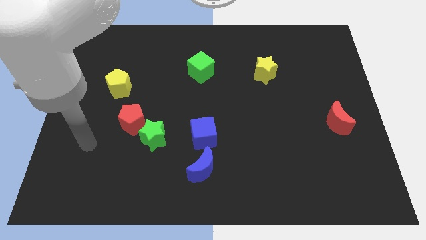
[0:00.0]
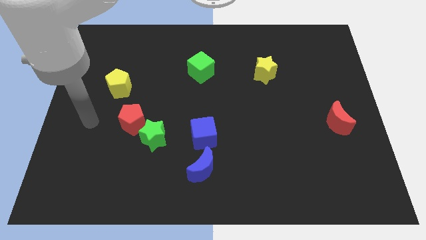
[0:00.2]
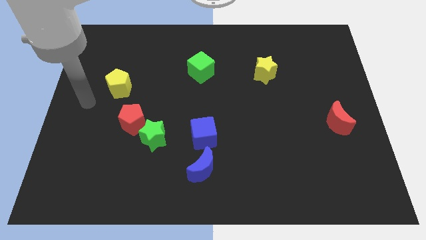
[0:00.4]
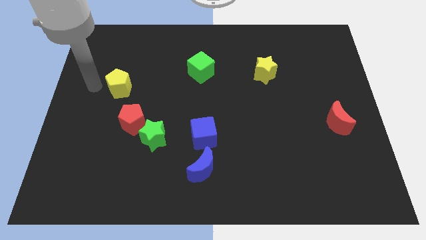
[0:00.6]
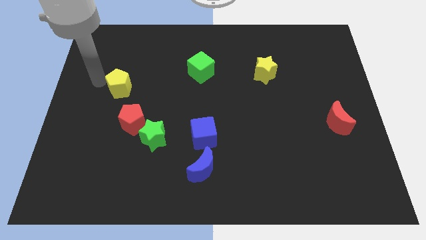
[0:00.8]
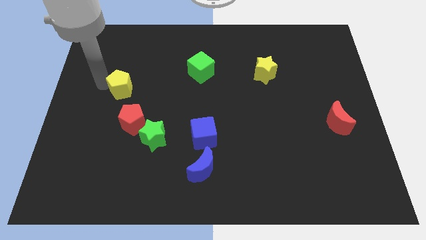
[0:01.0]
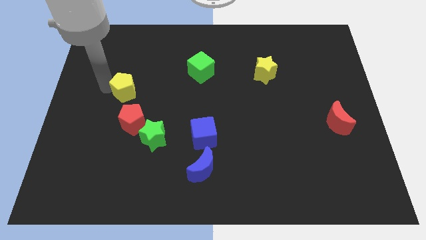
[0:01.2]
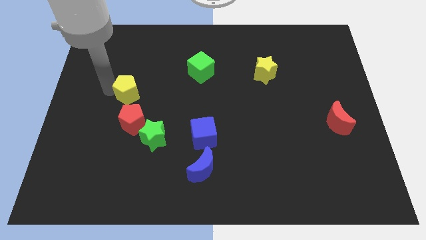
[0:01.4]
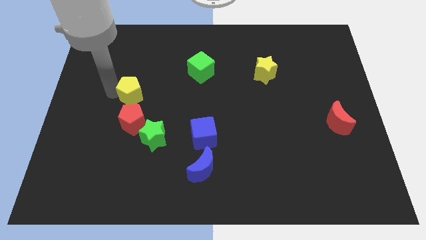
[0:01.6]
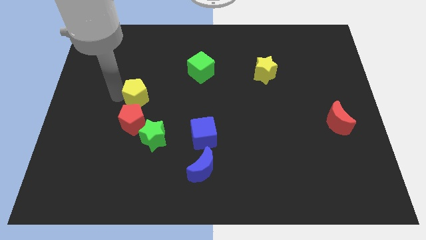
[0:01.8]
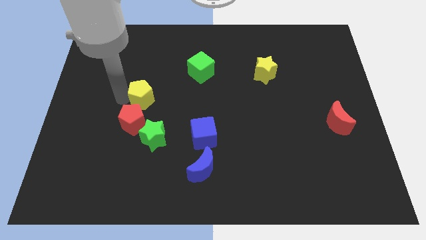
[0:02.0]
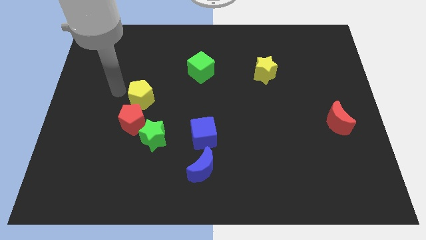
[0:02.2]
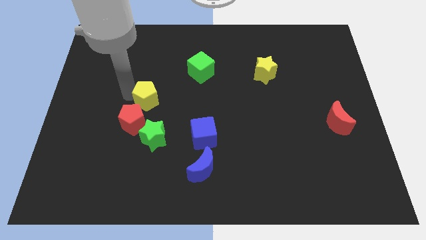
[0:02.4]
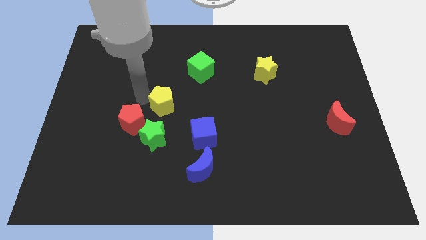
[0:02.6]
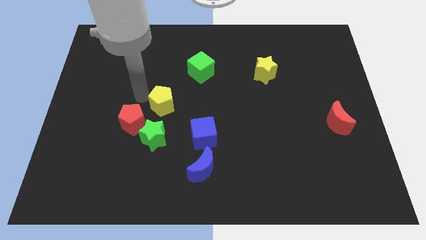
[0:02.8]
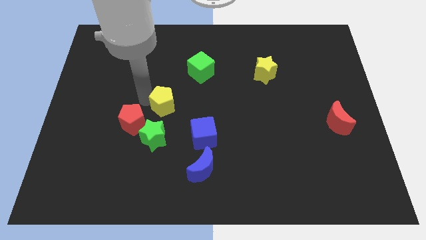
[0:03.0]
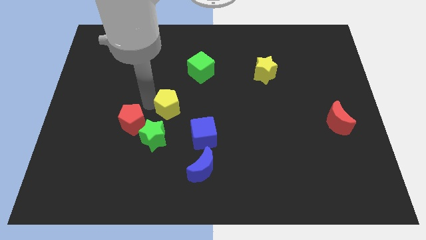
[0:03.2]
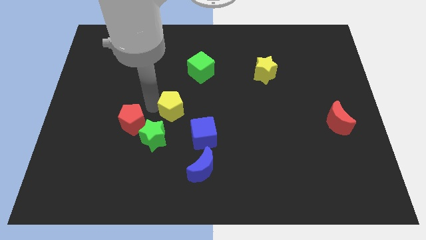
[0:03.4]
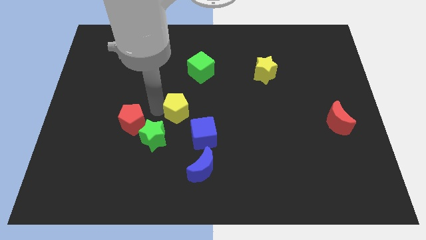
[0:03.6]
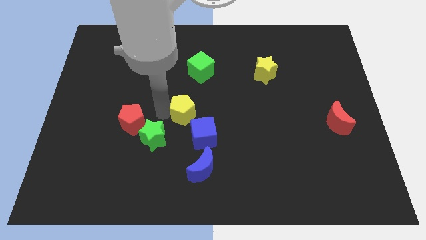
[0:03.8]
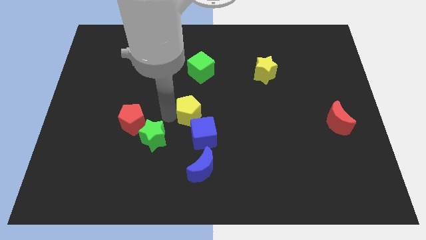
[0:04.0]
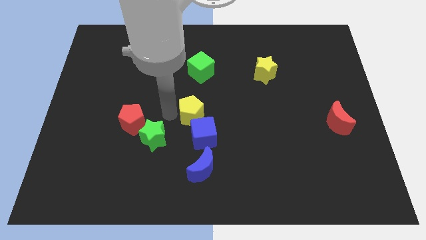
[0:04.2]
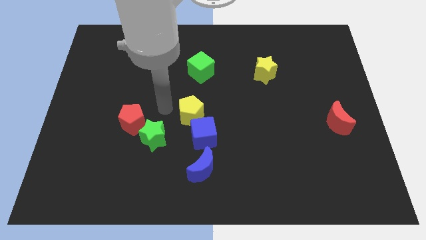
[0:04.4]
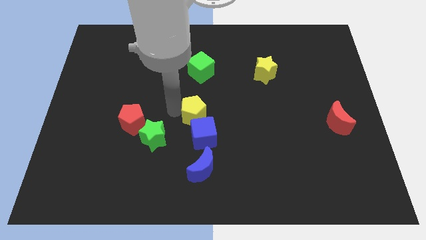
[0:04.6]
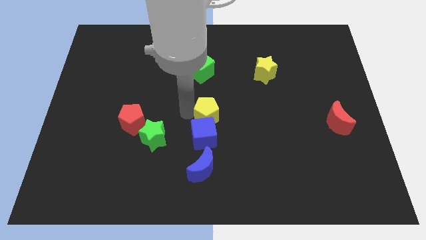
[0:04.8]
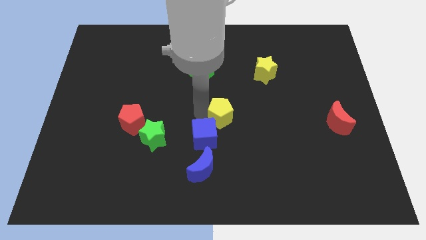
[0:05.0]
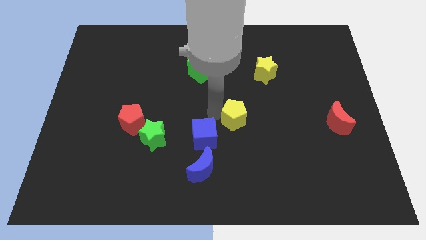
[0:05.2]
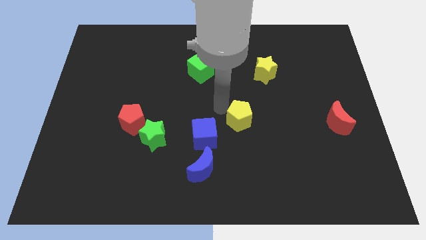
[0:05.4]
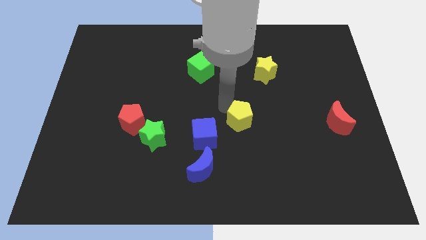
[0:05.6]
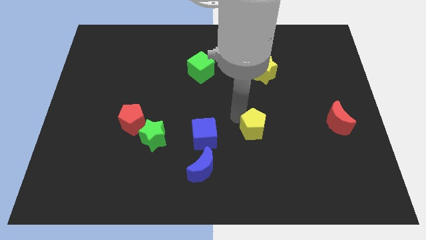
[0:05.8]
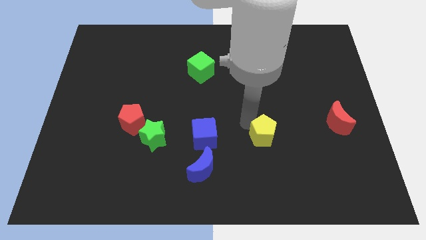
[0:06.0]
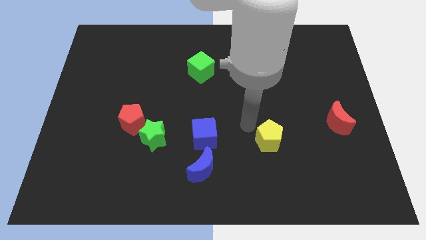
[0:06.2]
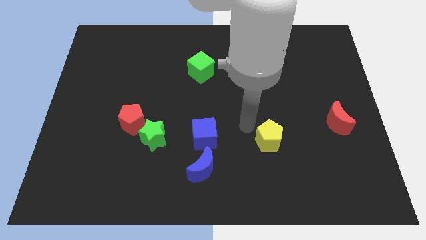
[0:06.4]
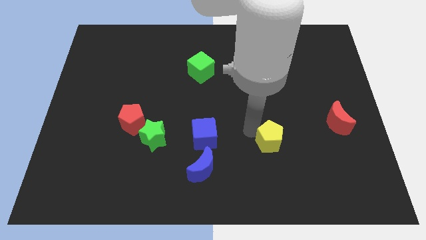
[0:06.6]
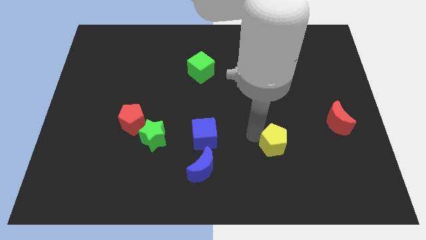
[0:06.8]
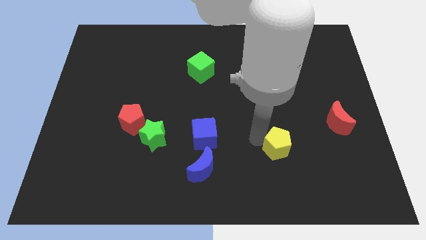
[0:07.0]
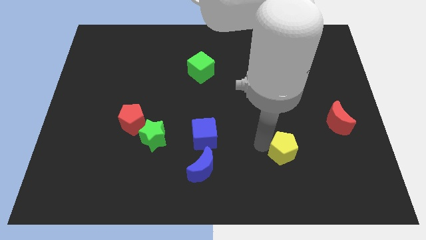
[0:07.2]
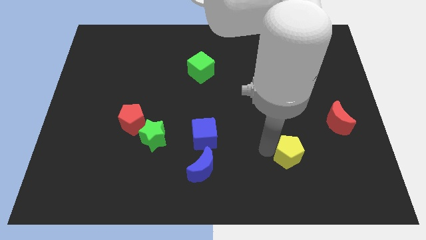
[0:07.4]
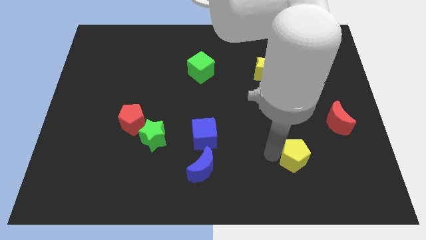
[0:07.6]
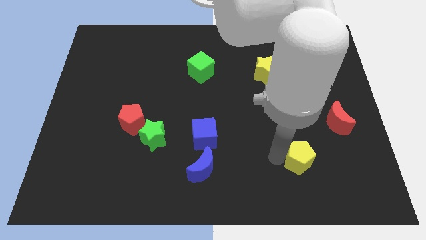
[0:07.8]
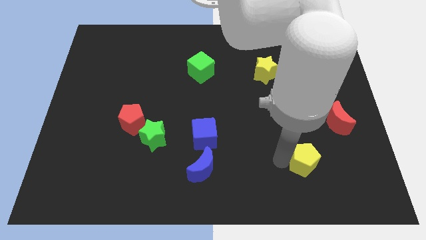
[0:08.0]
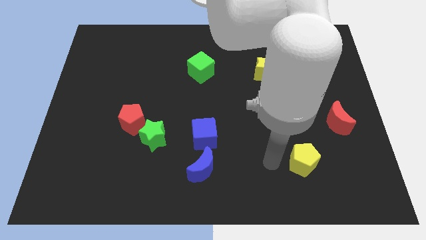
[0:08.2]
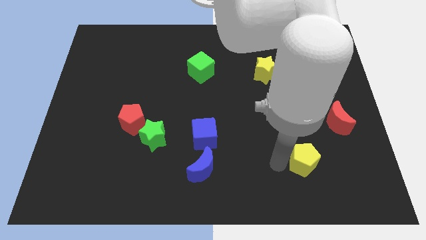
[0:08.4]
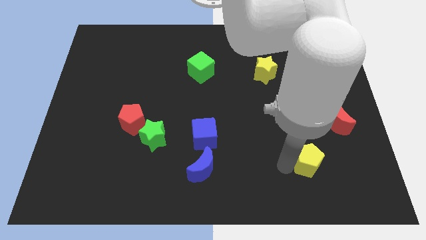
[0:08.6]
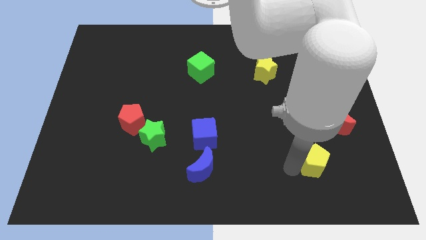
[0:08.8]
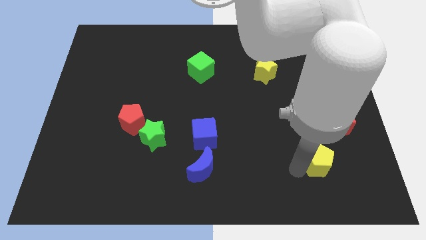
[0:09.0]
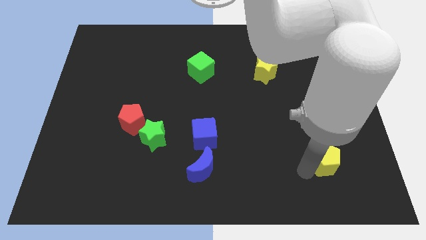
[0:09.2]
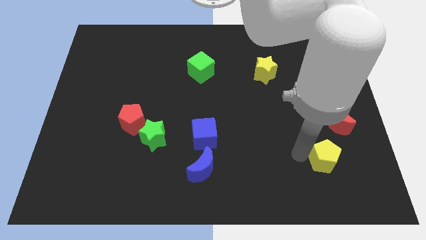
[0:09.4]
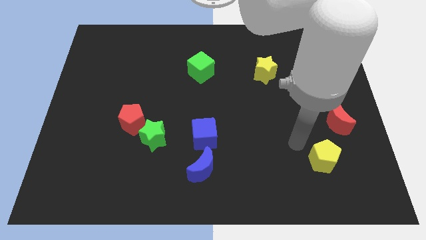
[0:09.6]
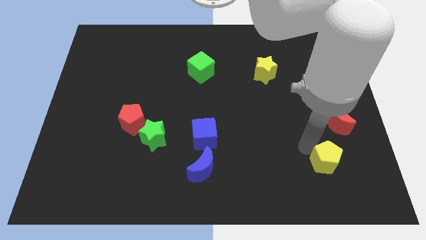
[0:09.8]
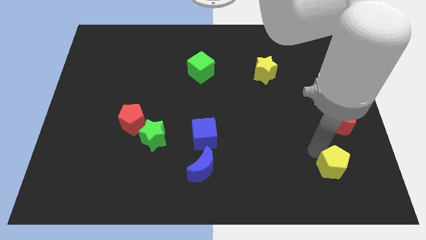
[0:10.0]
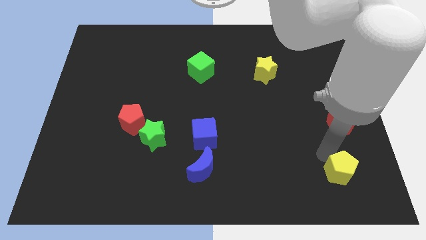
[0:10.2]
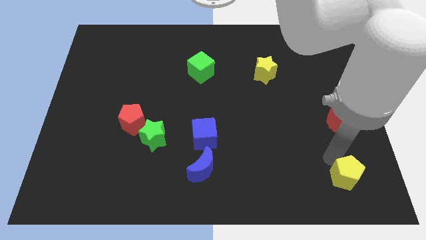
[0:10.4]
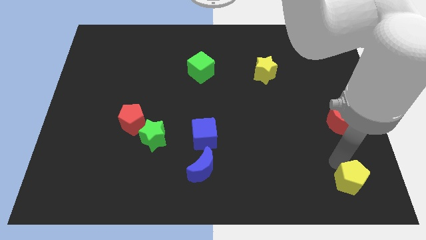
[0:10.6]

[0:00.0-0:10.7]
slide the yellow pentagon to the bottom right
